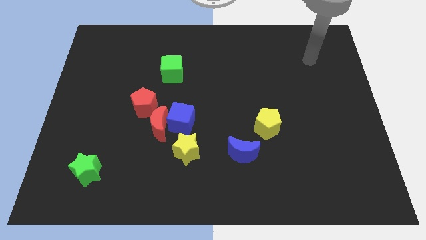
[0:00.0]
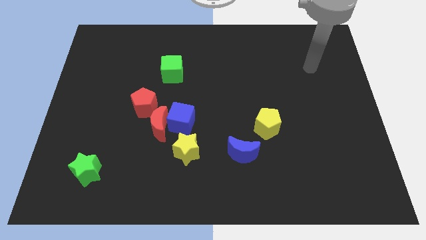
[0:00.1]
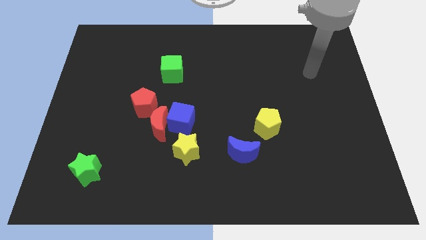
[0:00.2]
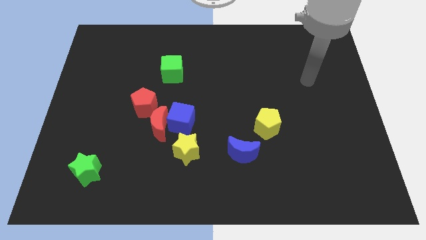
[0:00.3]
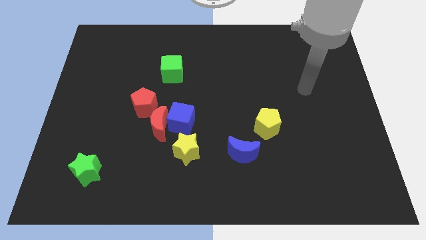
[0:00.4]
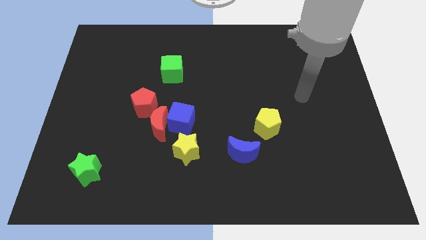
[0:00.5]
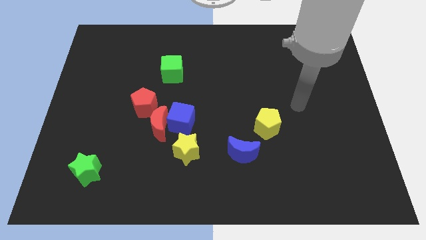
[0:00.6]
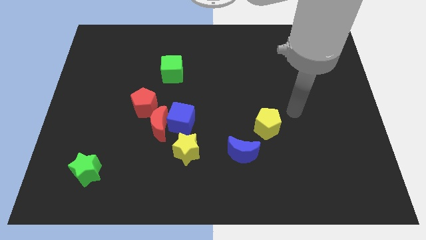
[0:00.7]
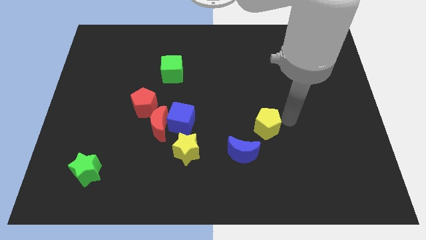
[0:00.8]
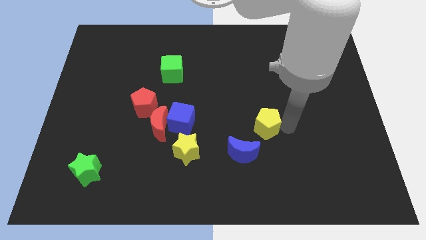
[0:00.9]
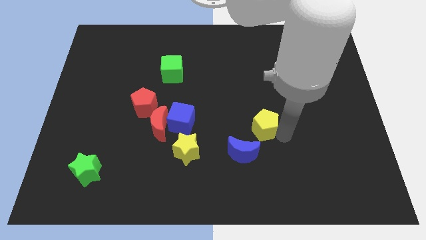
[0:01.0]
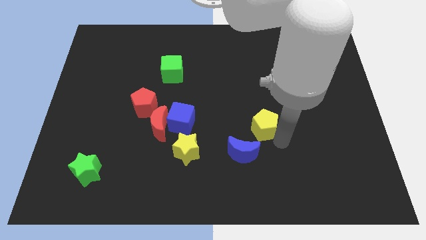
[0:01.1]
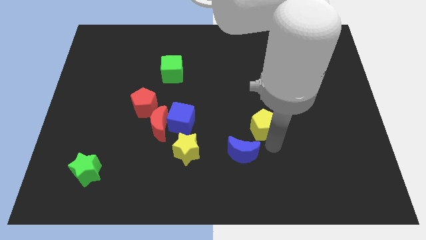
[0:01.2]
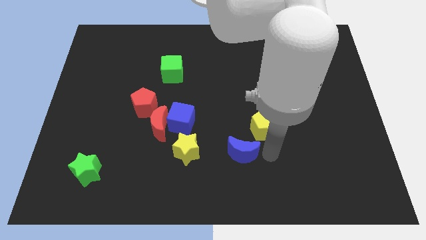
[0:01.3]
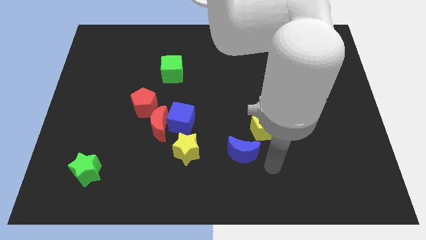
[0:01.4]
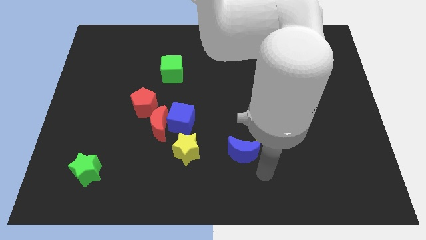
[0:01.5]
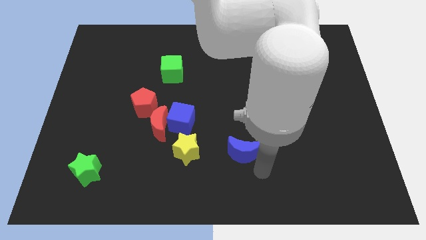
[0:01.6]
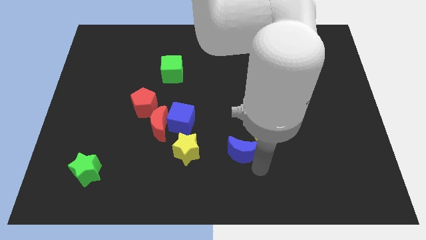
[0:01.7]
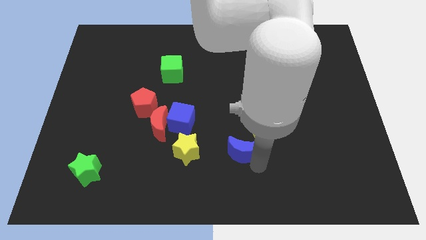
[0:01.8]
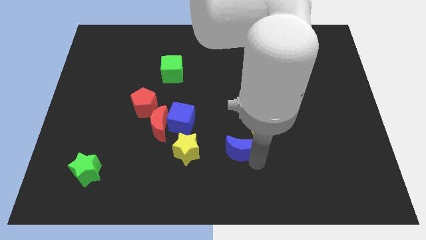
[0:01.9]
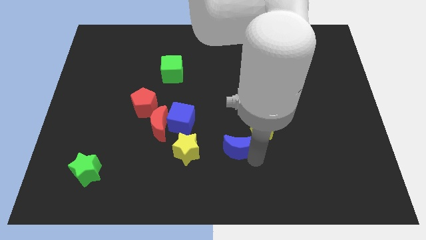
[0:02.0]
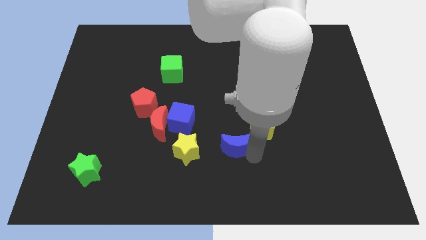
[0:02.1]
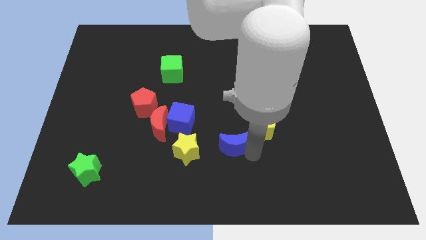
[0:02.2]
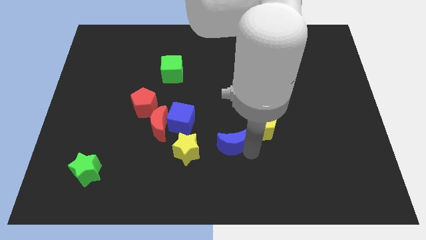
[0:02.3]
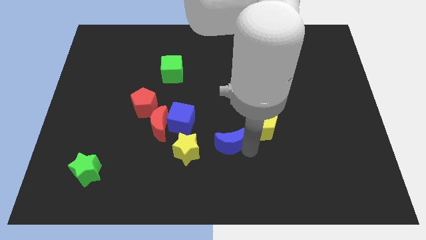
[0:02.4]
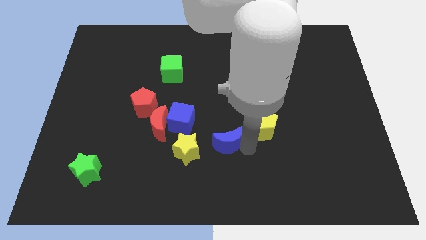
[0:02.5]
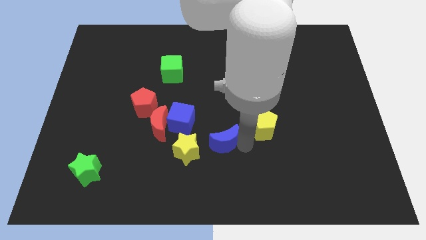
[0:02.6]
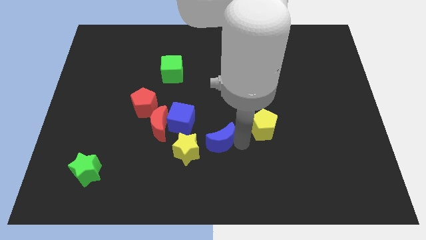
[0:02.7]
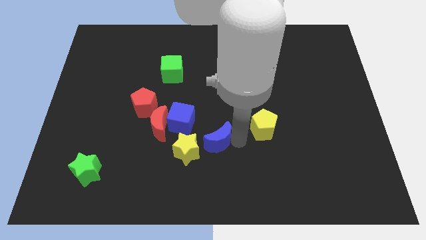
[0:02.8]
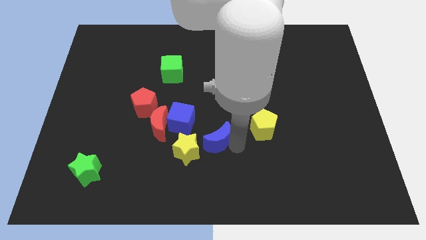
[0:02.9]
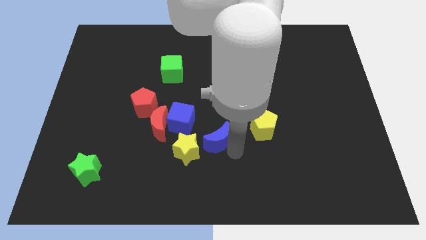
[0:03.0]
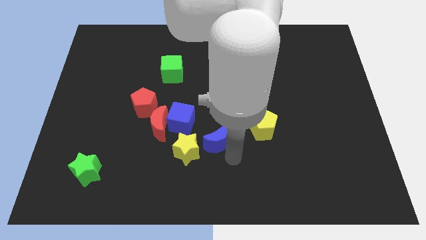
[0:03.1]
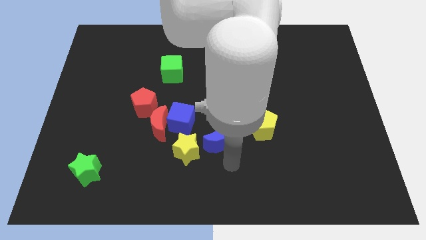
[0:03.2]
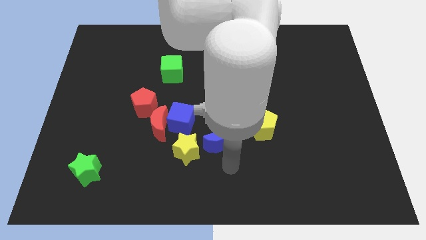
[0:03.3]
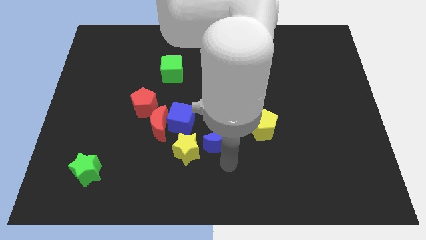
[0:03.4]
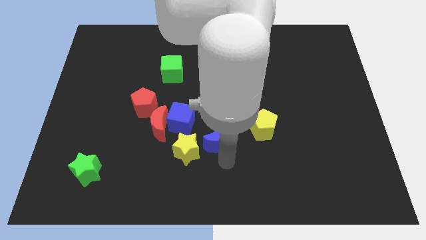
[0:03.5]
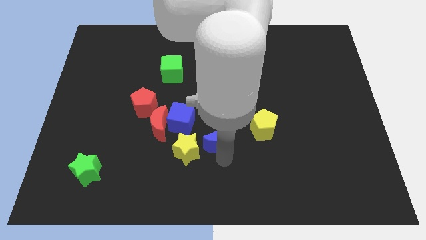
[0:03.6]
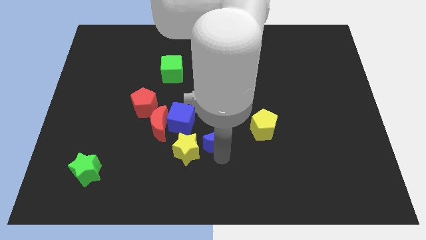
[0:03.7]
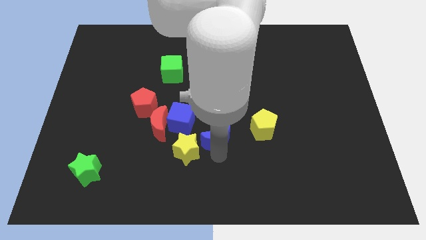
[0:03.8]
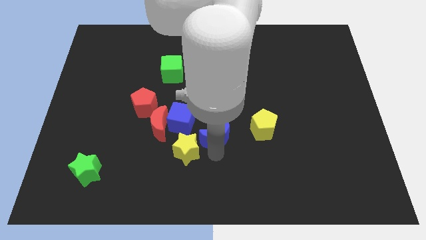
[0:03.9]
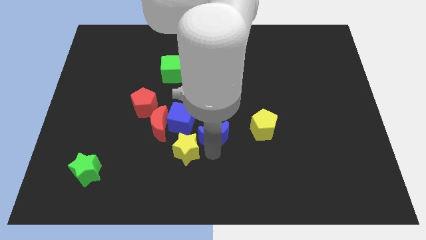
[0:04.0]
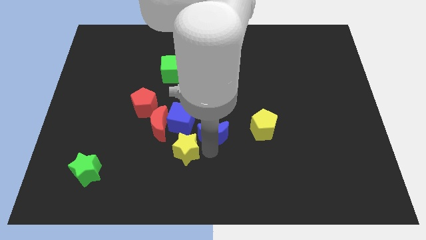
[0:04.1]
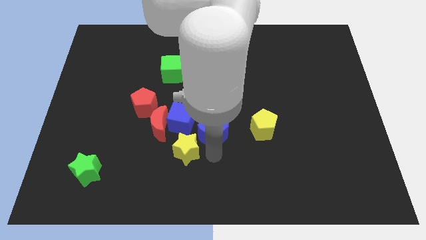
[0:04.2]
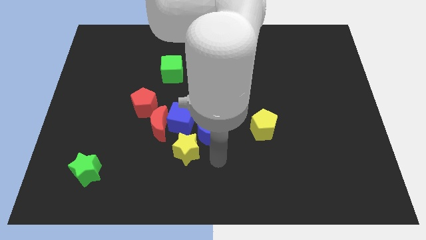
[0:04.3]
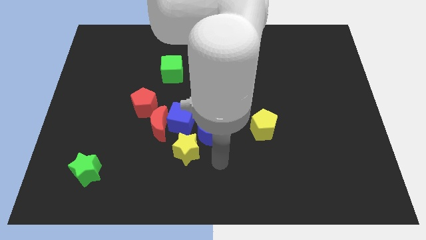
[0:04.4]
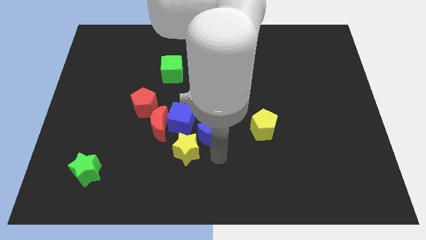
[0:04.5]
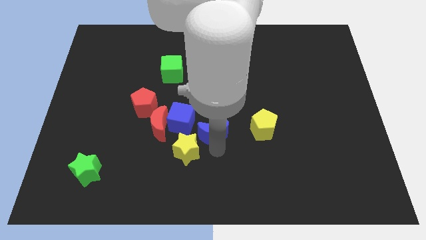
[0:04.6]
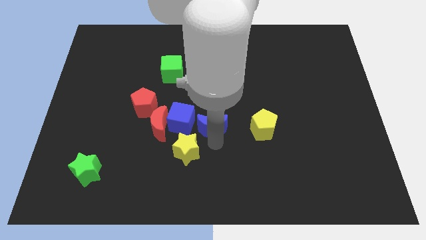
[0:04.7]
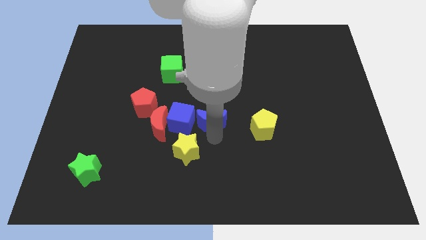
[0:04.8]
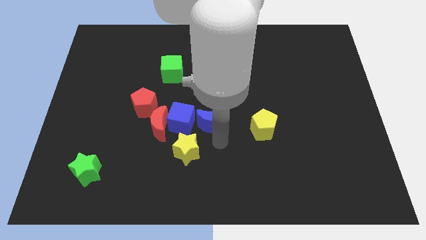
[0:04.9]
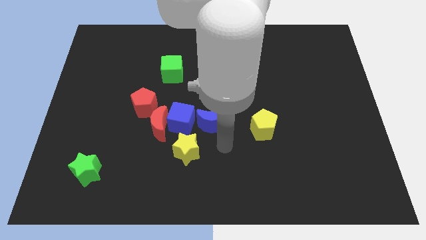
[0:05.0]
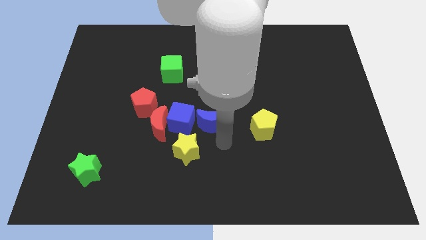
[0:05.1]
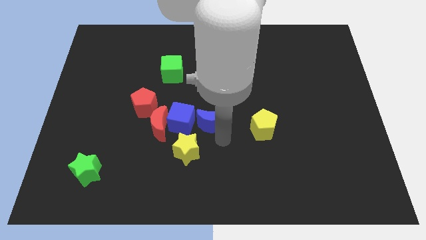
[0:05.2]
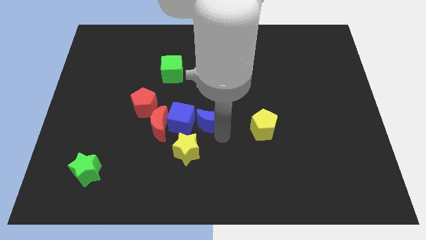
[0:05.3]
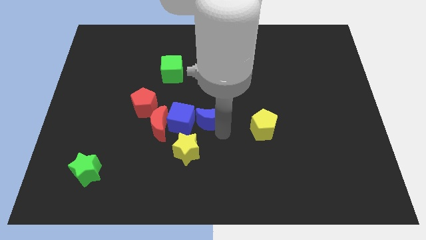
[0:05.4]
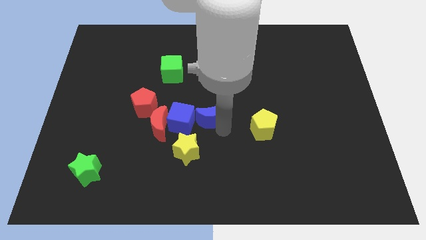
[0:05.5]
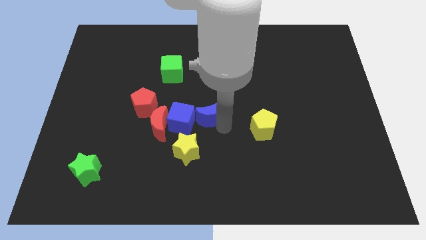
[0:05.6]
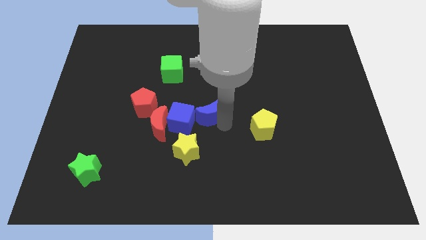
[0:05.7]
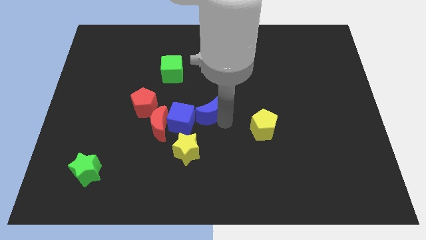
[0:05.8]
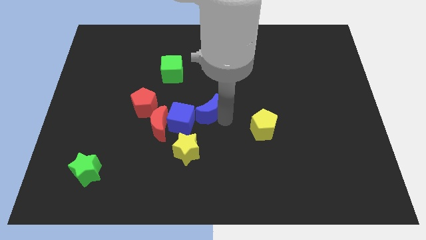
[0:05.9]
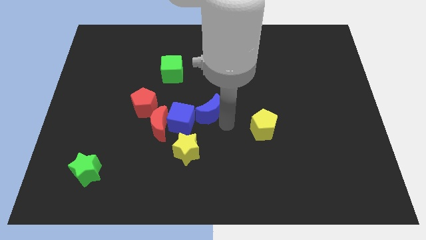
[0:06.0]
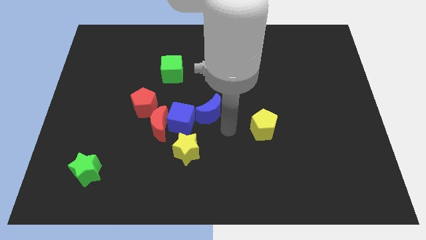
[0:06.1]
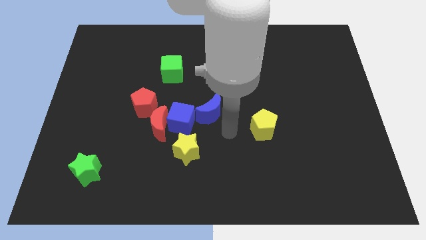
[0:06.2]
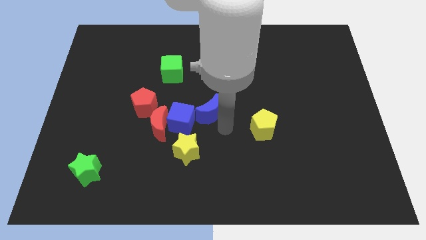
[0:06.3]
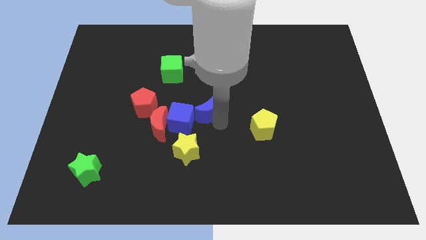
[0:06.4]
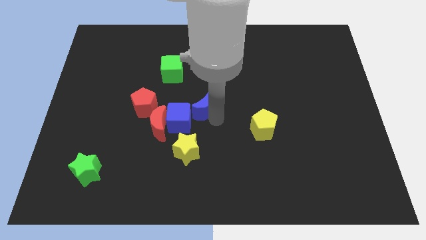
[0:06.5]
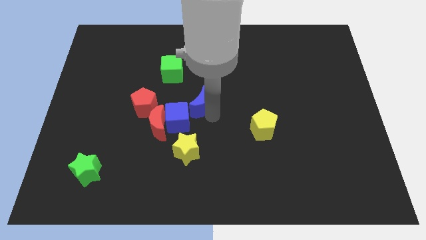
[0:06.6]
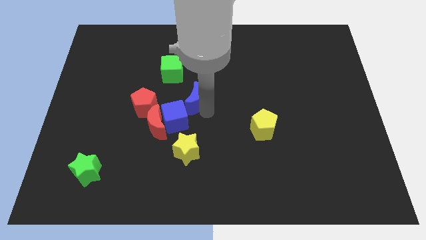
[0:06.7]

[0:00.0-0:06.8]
put the blue moon to the bottom right of the green cube
